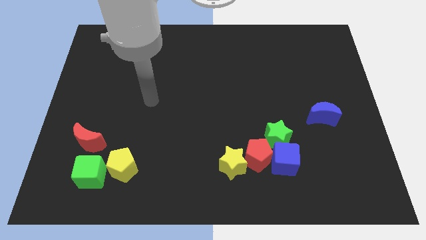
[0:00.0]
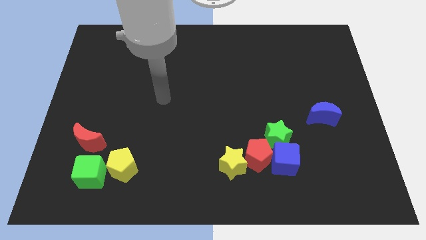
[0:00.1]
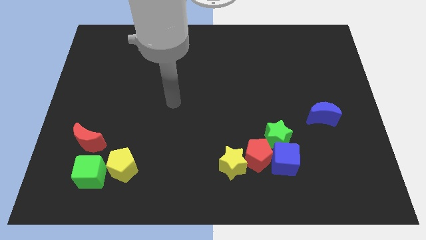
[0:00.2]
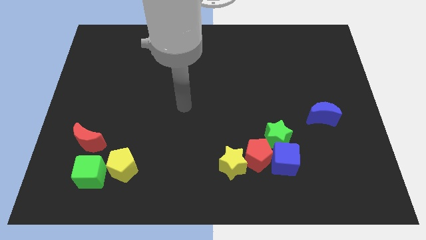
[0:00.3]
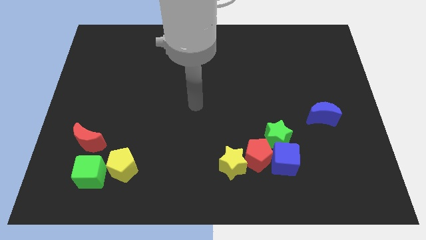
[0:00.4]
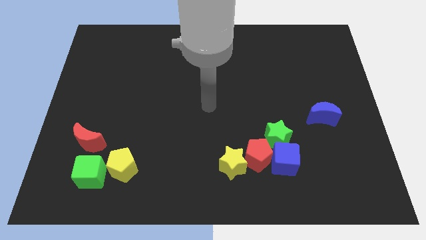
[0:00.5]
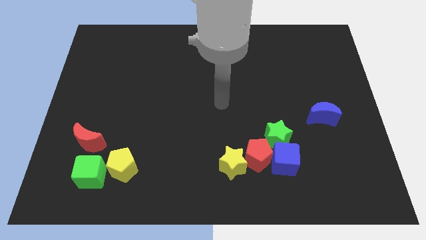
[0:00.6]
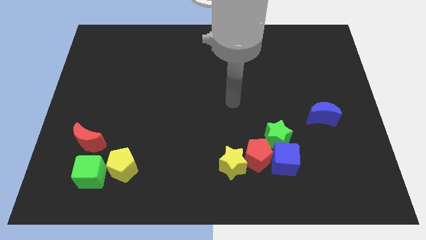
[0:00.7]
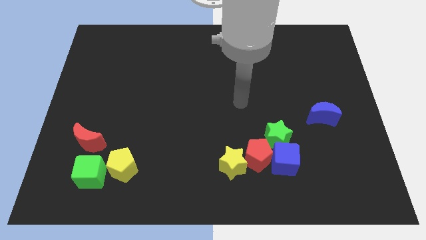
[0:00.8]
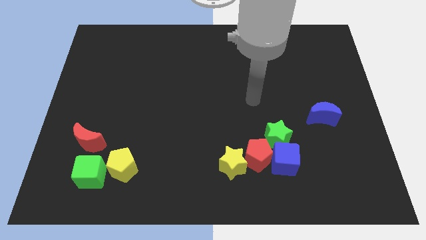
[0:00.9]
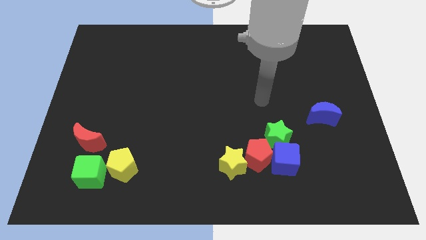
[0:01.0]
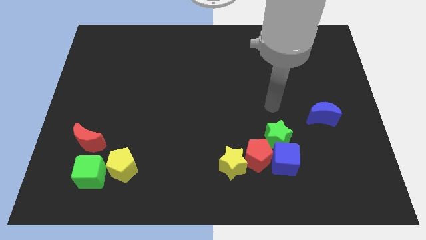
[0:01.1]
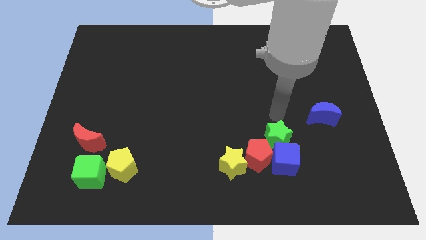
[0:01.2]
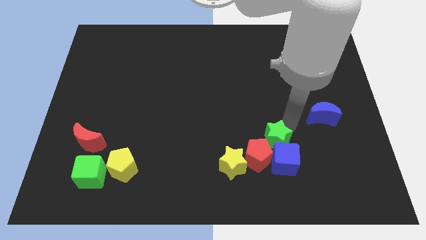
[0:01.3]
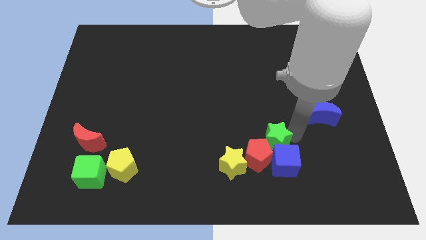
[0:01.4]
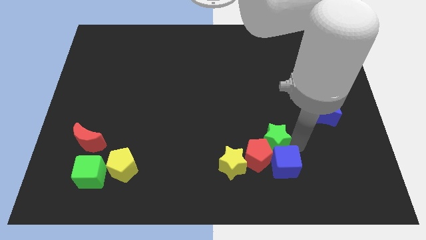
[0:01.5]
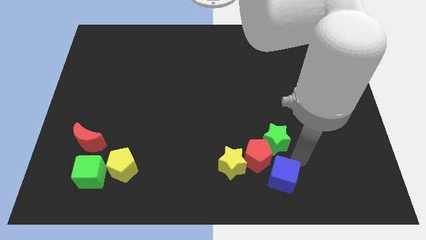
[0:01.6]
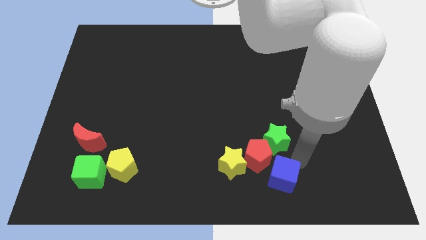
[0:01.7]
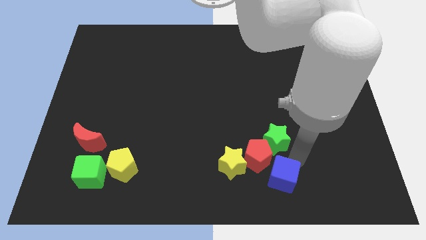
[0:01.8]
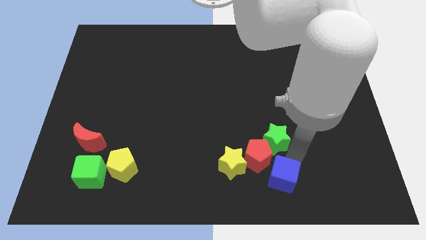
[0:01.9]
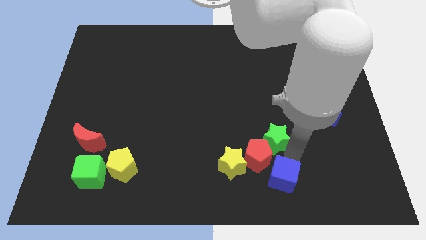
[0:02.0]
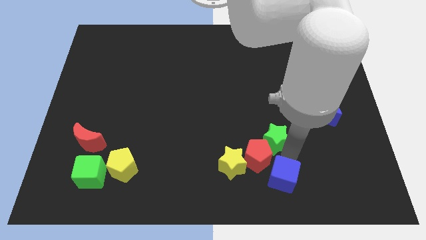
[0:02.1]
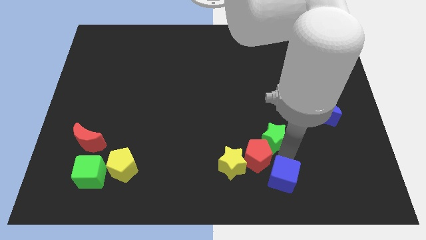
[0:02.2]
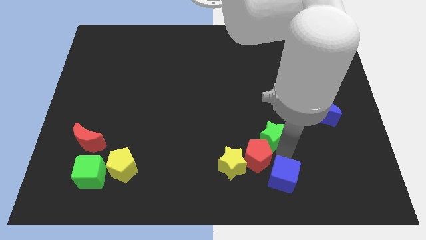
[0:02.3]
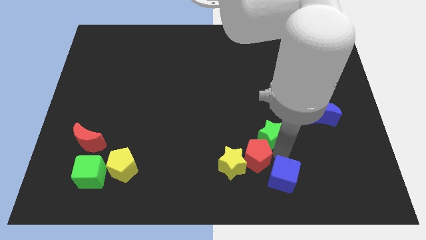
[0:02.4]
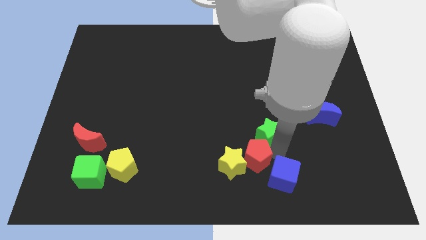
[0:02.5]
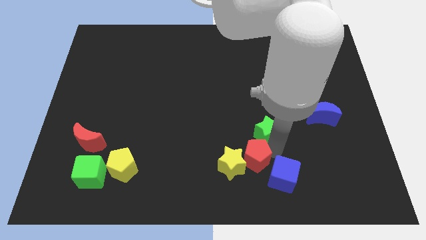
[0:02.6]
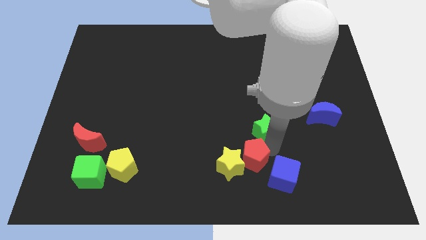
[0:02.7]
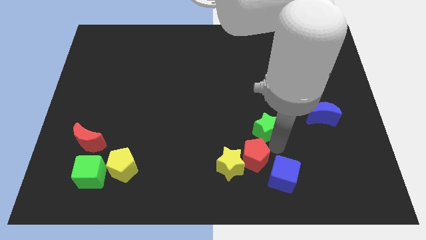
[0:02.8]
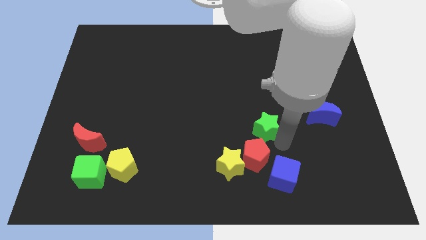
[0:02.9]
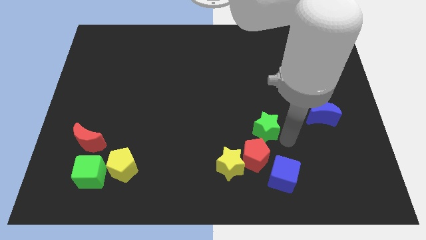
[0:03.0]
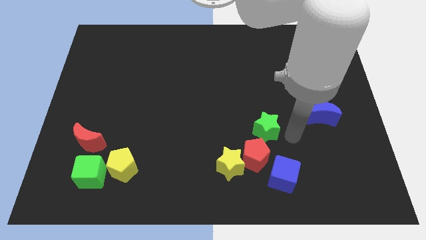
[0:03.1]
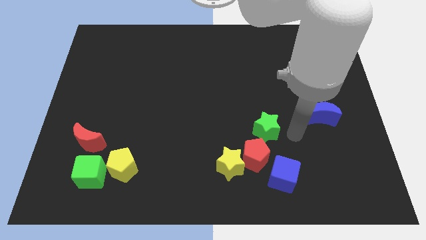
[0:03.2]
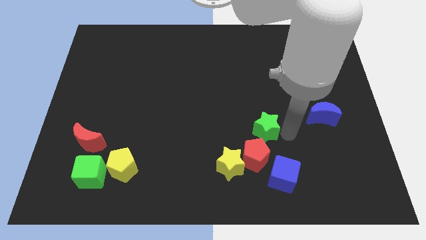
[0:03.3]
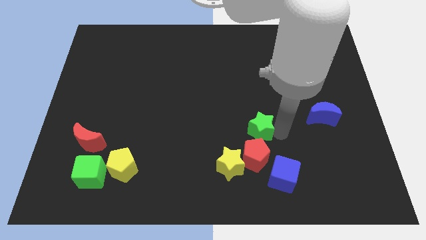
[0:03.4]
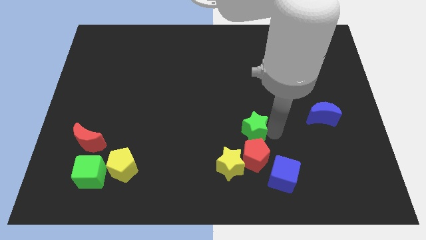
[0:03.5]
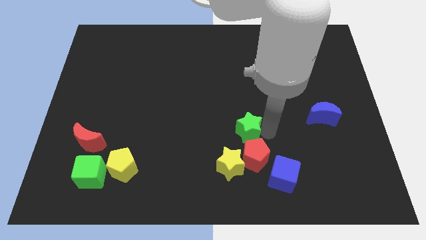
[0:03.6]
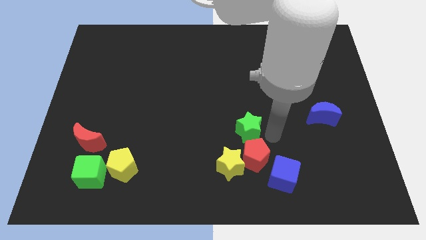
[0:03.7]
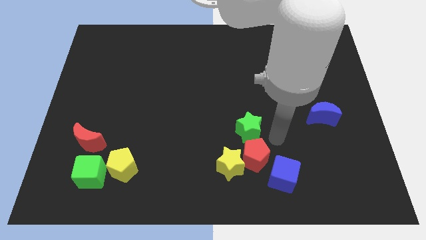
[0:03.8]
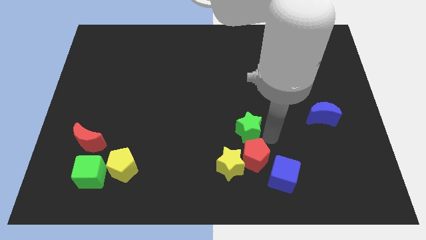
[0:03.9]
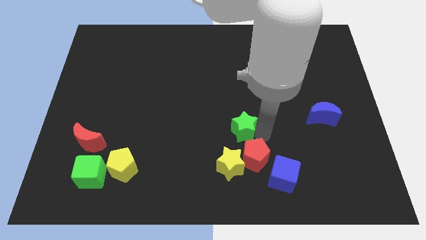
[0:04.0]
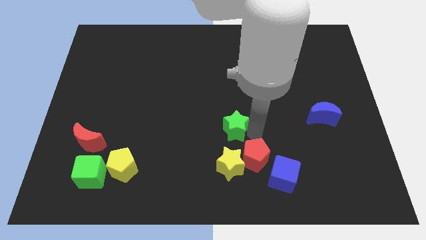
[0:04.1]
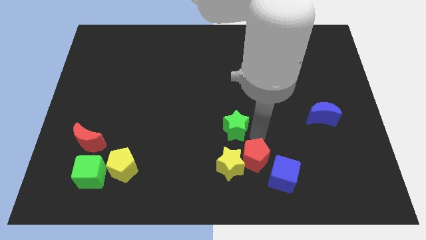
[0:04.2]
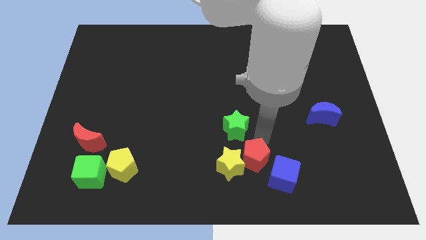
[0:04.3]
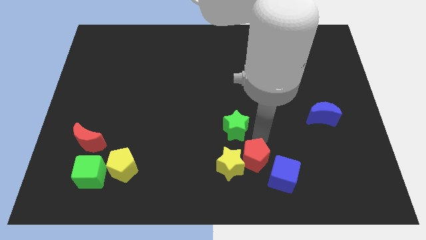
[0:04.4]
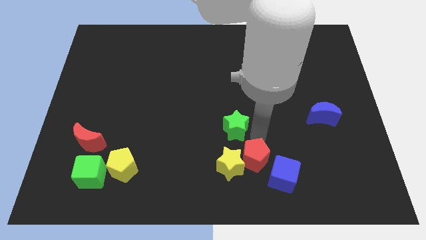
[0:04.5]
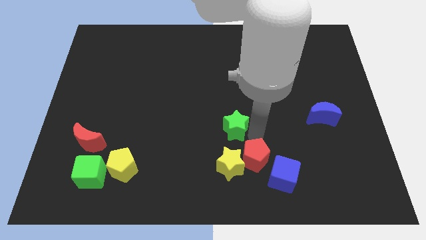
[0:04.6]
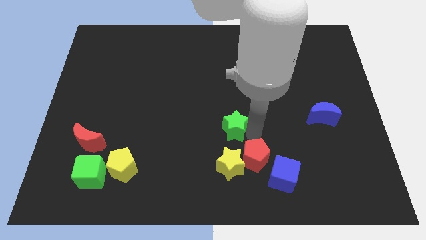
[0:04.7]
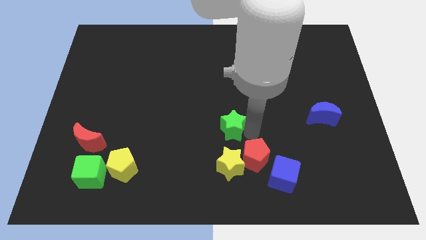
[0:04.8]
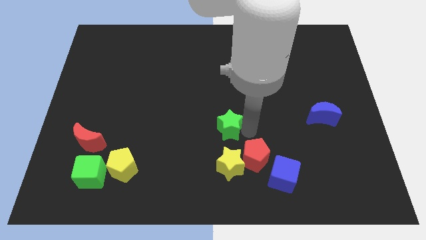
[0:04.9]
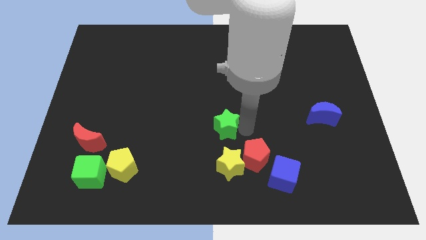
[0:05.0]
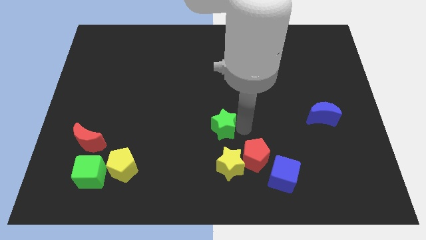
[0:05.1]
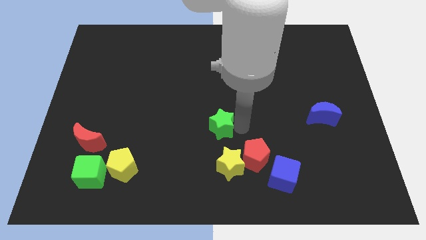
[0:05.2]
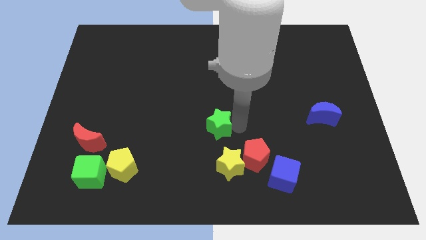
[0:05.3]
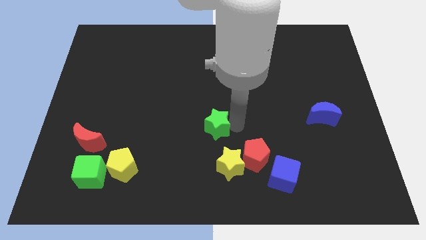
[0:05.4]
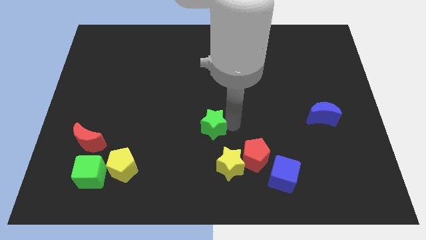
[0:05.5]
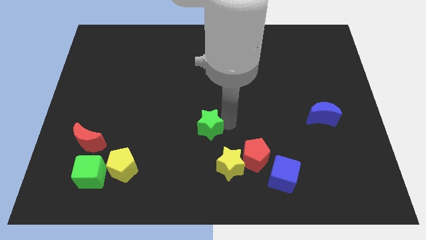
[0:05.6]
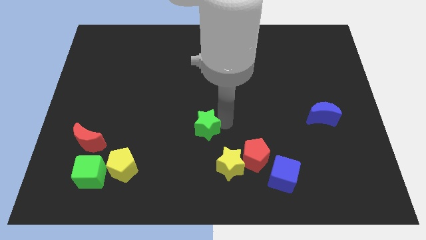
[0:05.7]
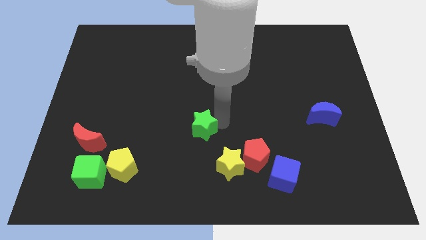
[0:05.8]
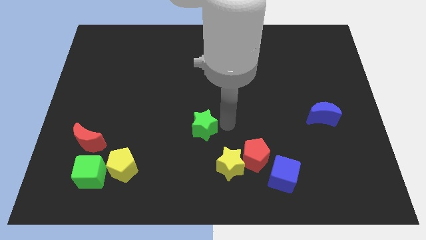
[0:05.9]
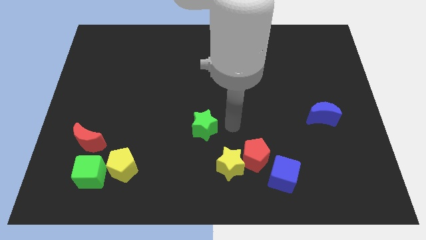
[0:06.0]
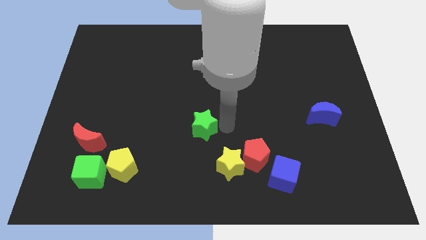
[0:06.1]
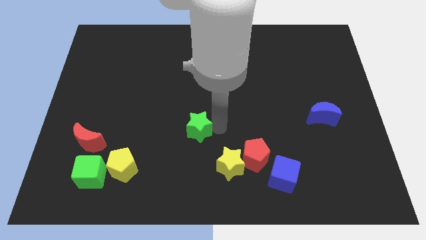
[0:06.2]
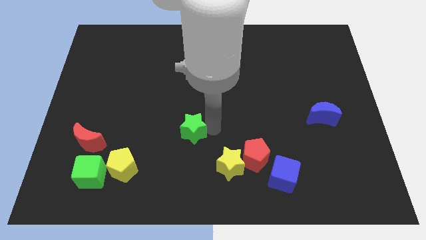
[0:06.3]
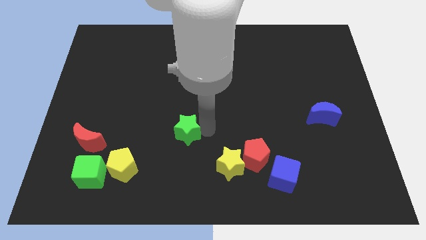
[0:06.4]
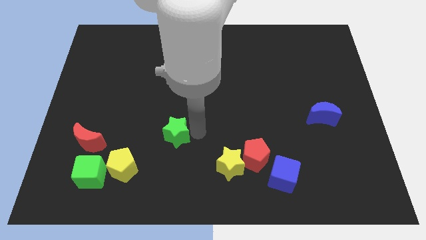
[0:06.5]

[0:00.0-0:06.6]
move the green star left

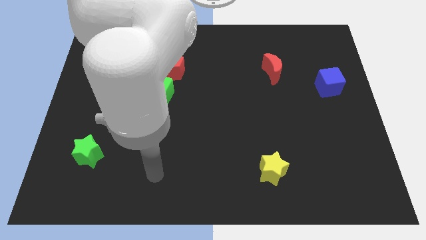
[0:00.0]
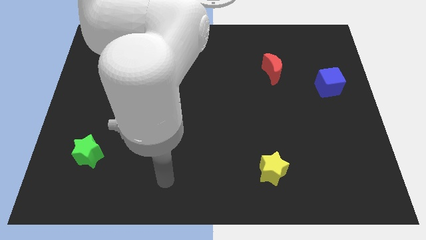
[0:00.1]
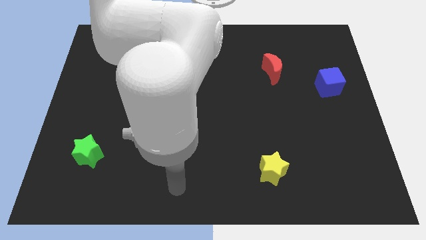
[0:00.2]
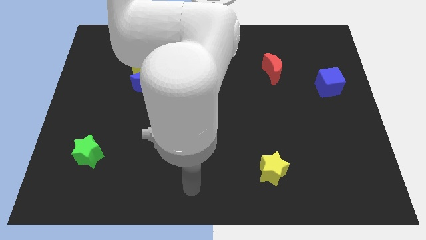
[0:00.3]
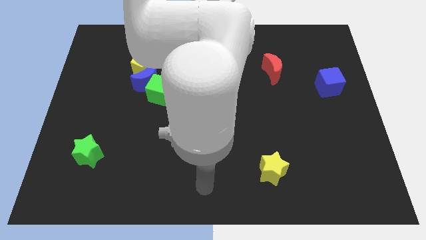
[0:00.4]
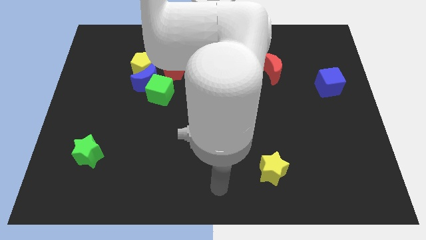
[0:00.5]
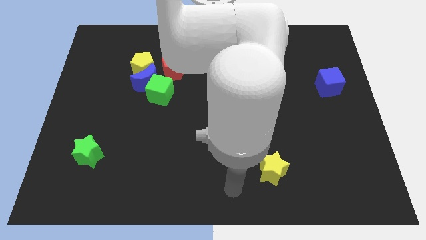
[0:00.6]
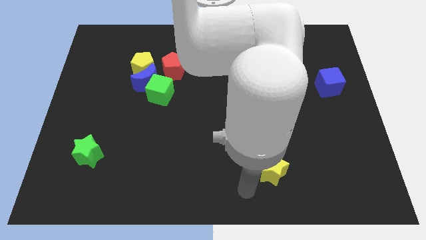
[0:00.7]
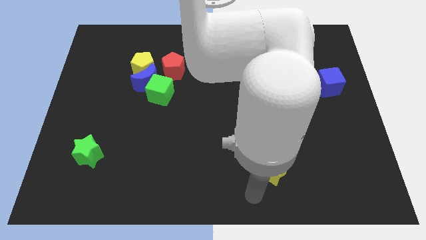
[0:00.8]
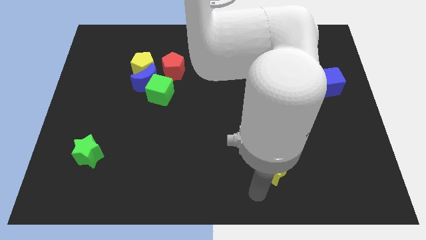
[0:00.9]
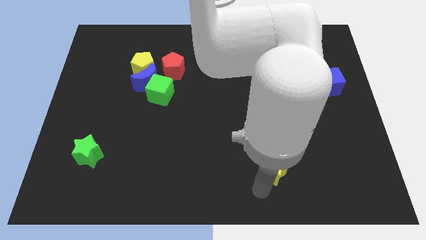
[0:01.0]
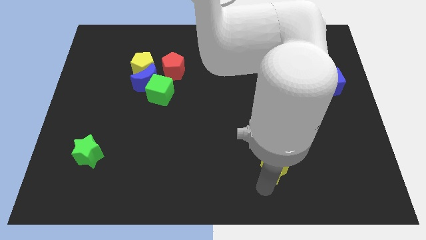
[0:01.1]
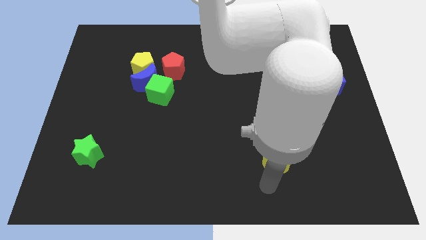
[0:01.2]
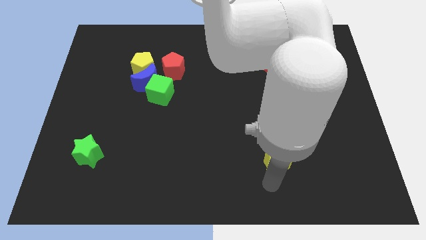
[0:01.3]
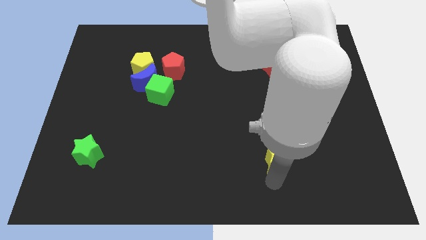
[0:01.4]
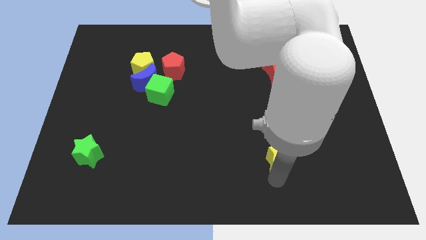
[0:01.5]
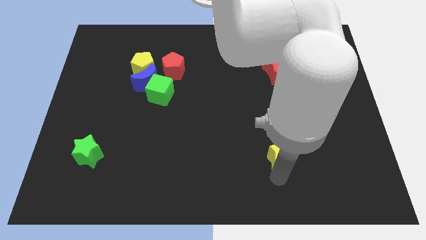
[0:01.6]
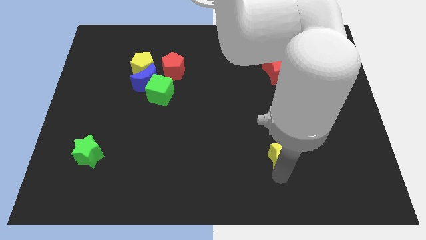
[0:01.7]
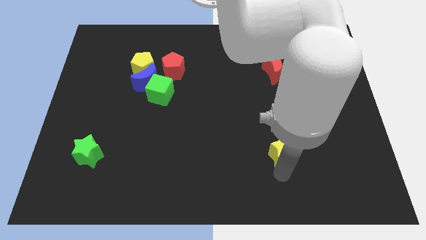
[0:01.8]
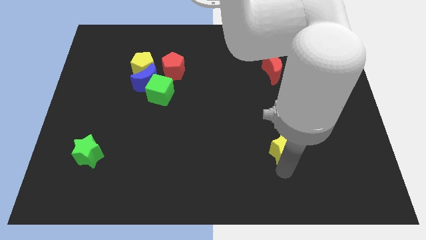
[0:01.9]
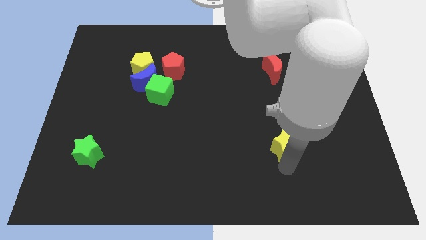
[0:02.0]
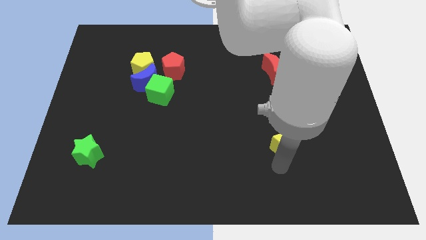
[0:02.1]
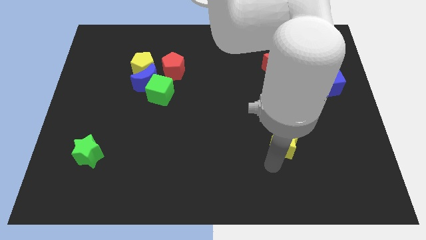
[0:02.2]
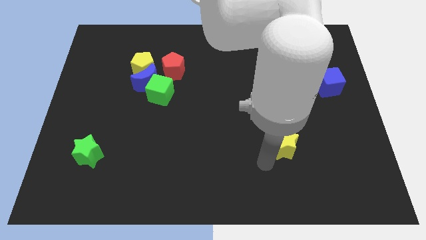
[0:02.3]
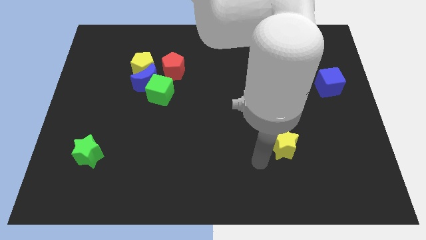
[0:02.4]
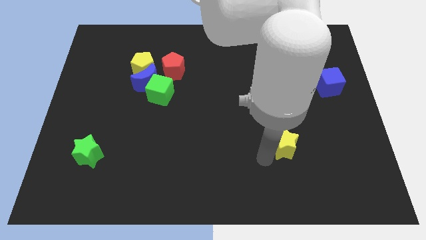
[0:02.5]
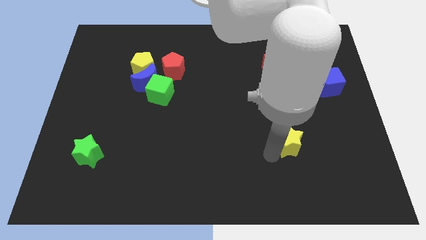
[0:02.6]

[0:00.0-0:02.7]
slightly slide the yellow star up and then right
